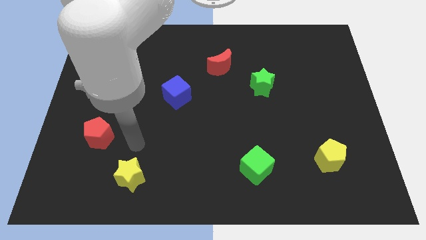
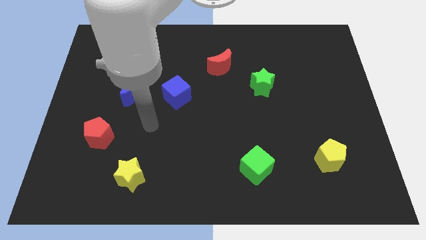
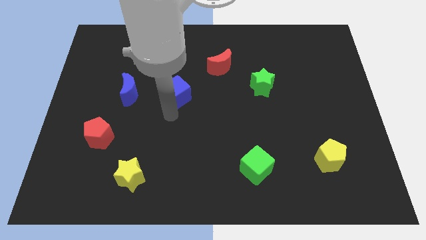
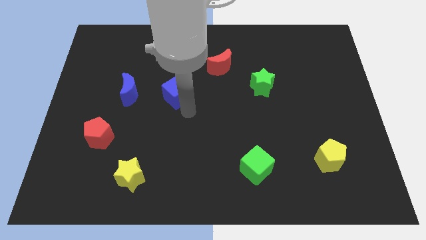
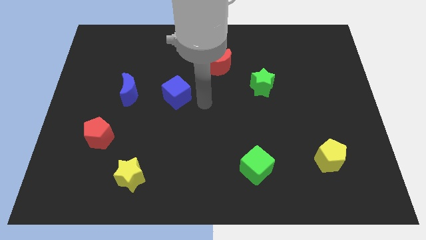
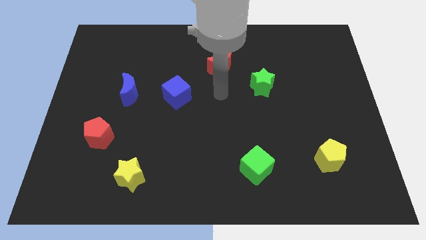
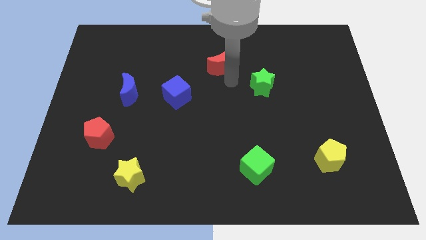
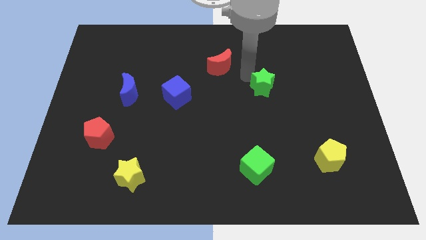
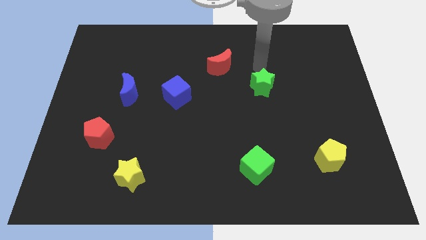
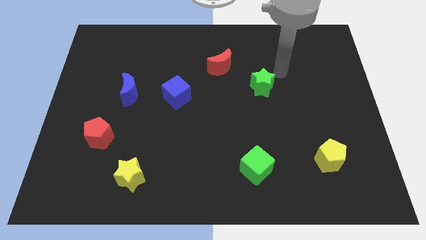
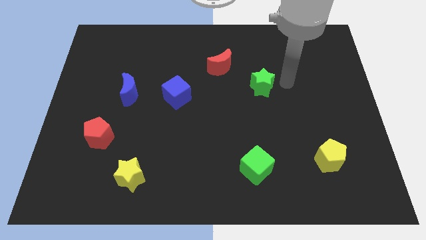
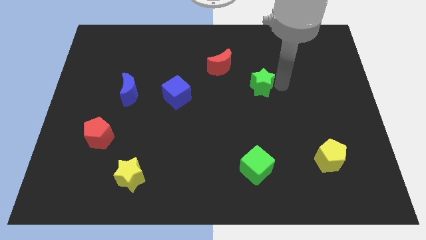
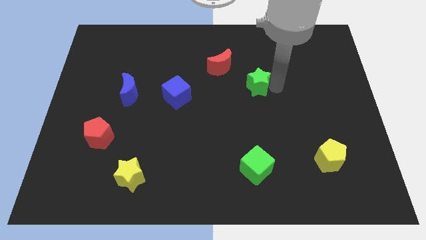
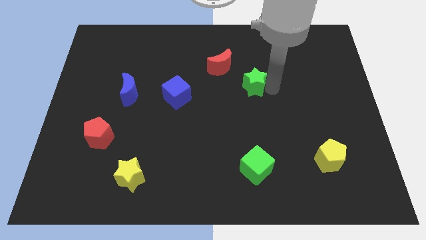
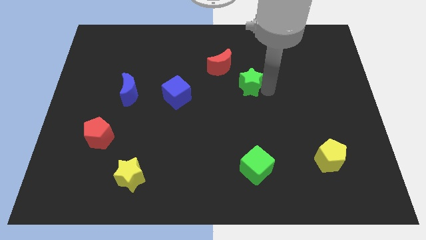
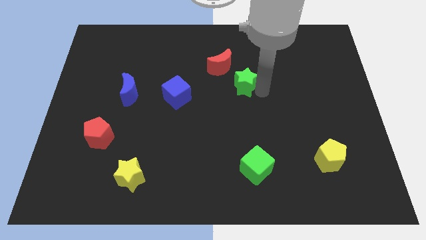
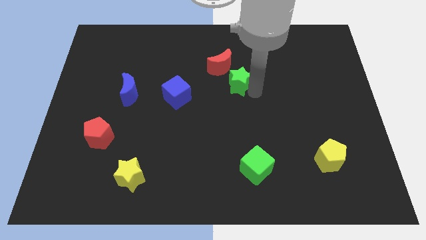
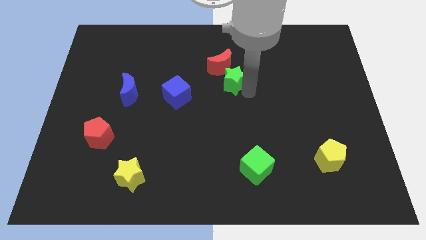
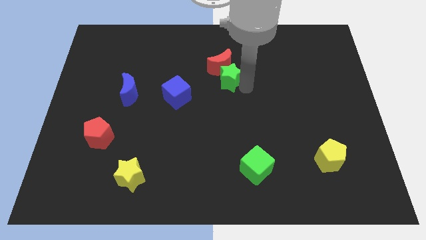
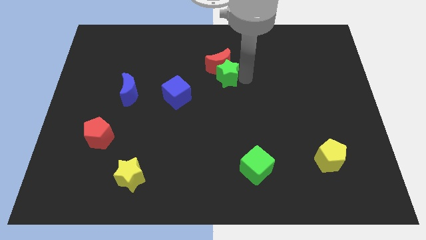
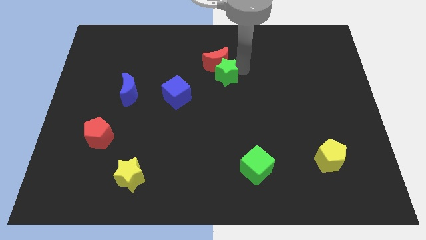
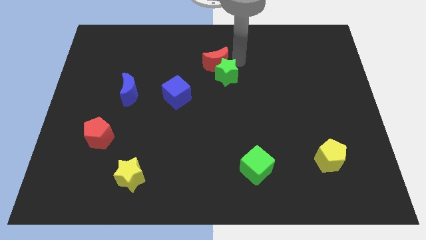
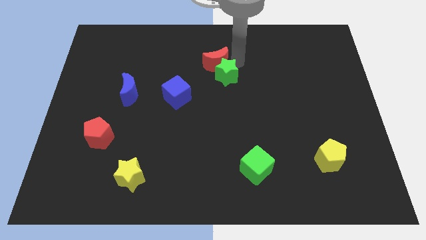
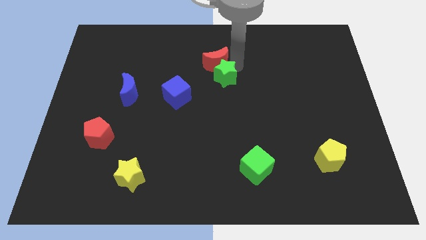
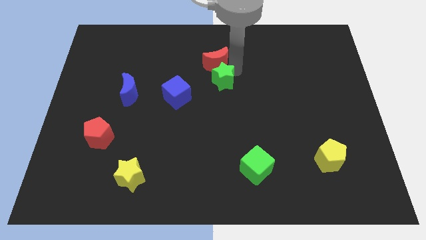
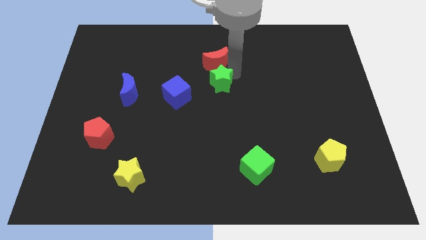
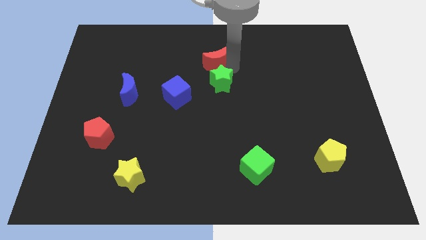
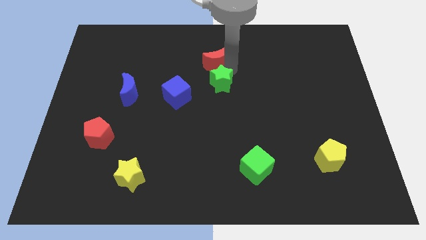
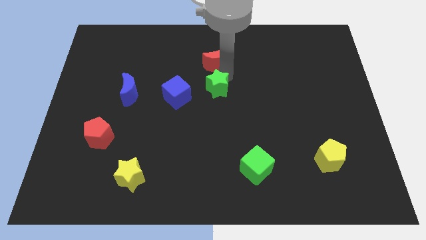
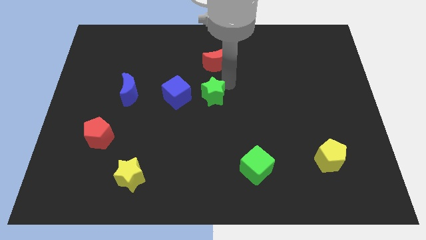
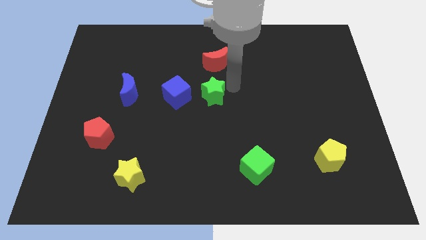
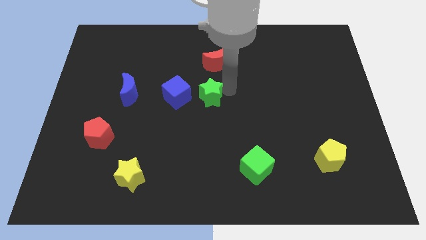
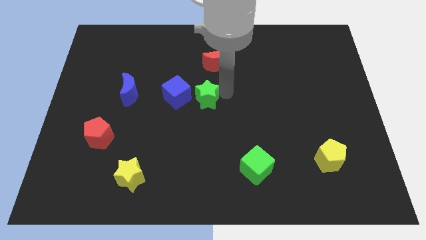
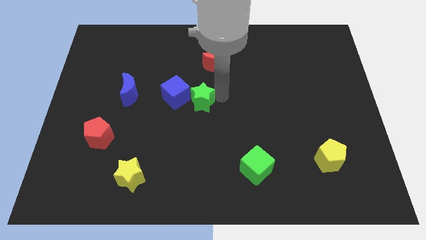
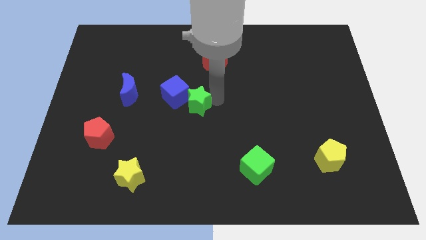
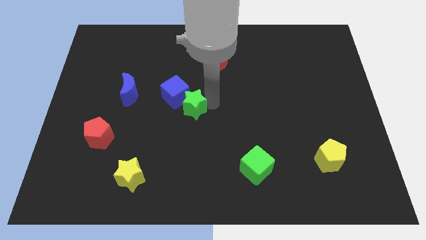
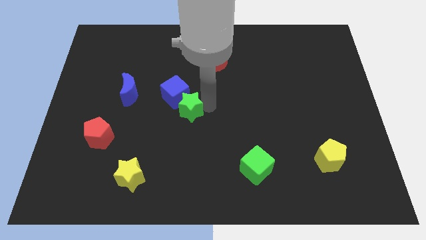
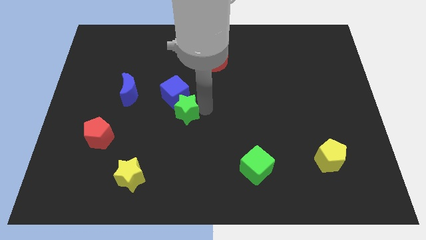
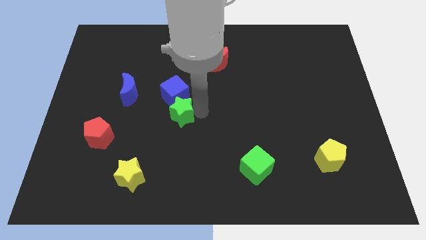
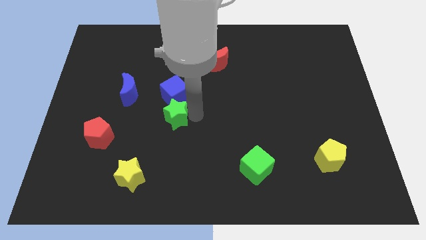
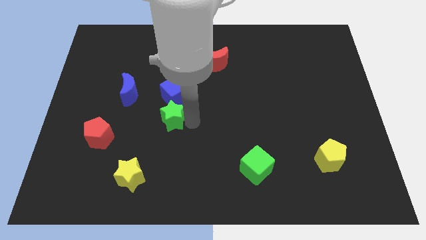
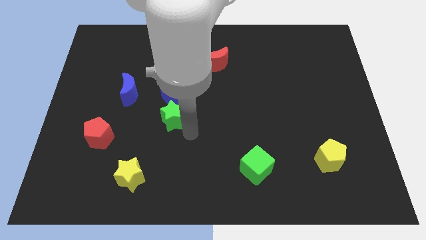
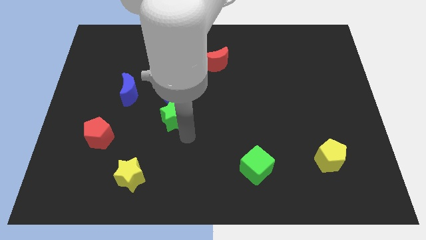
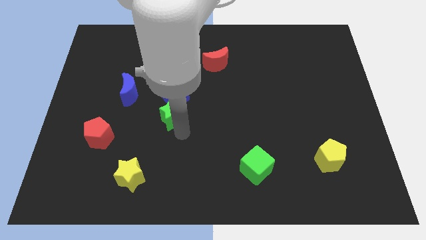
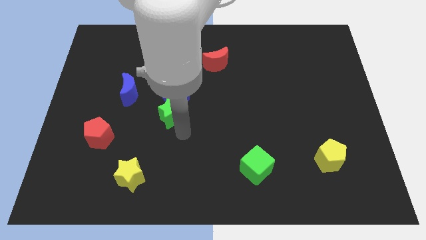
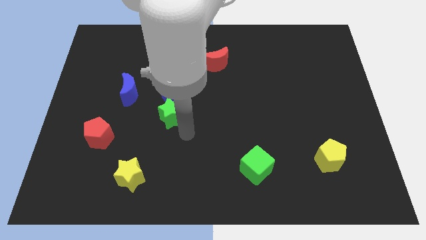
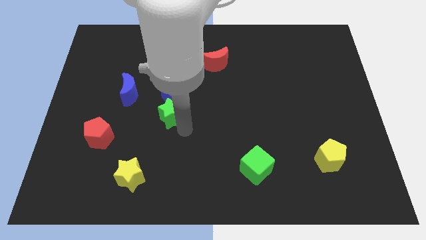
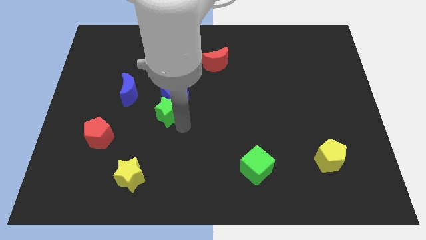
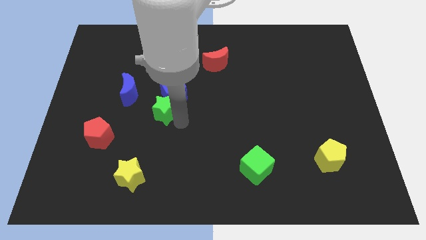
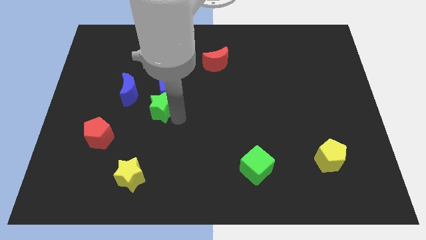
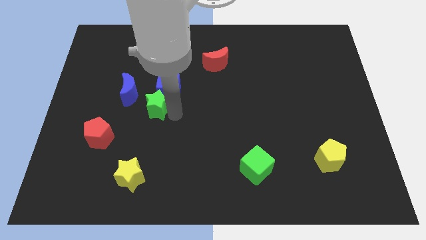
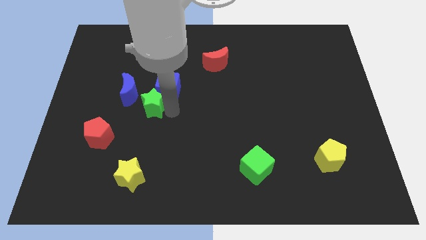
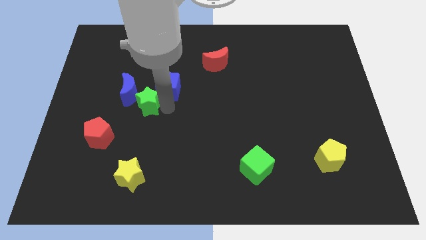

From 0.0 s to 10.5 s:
push the green star left of the blue cube

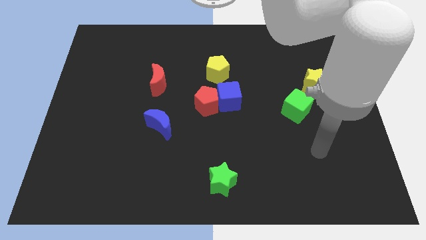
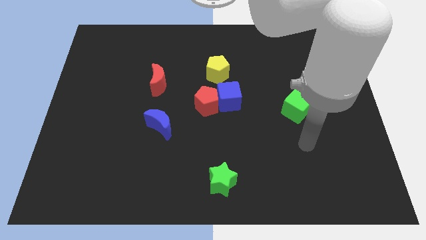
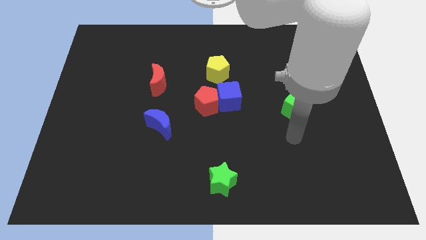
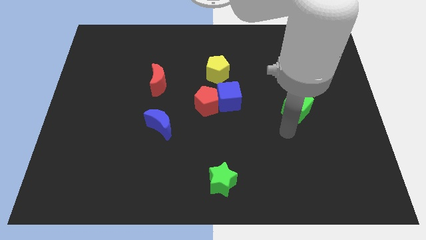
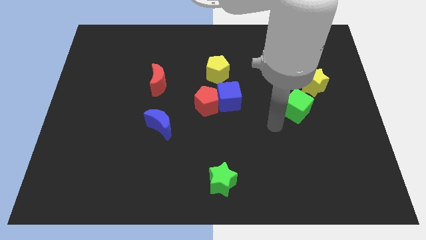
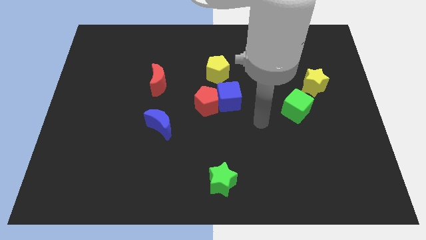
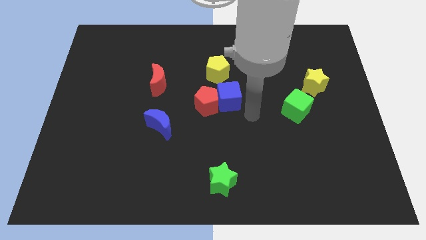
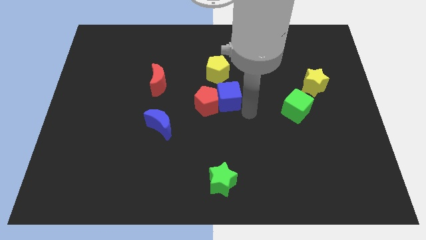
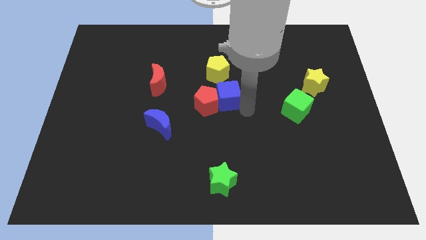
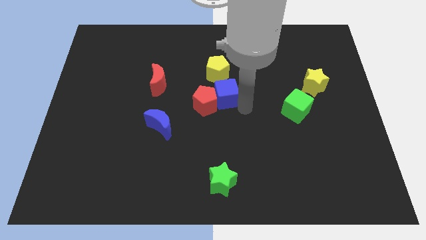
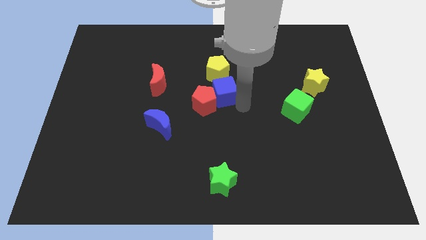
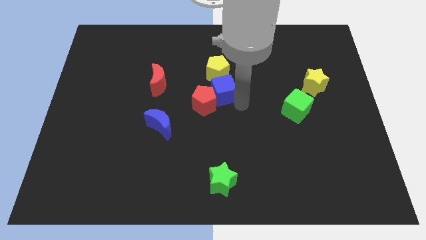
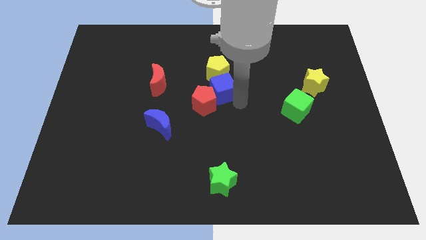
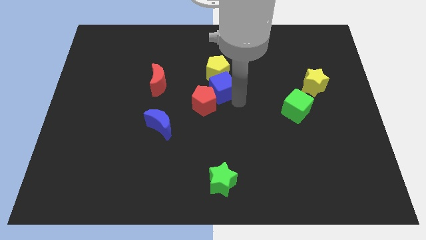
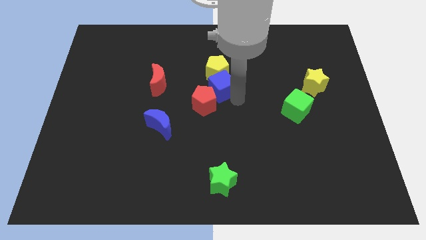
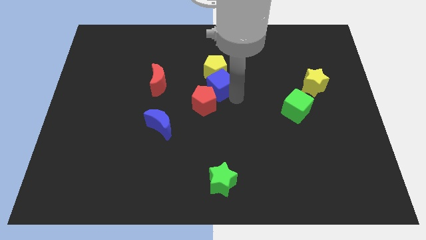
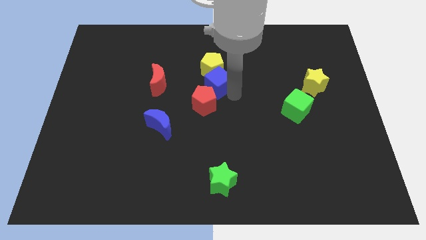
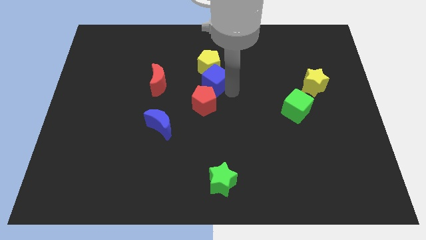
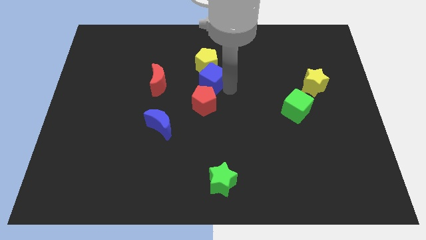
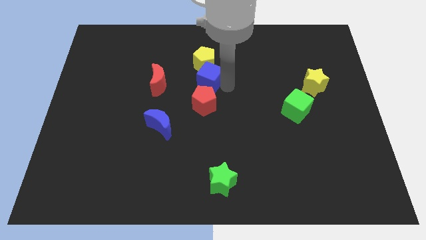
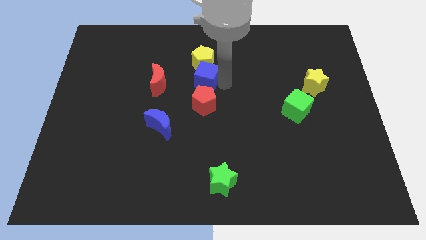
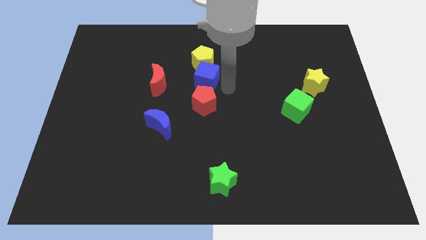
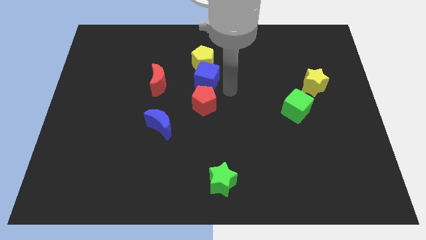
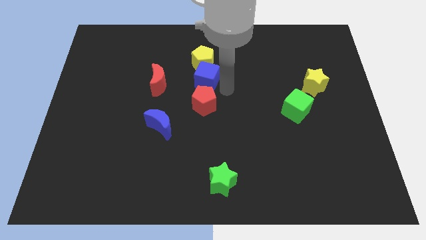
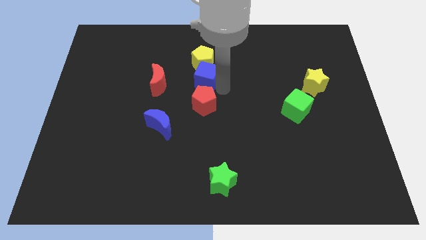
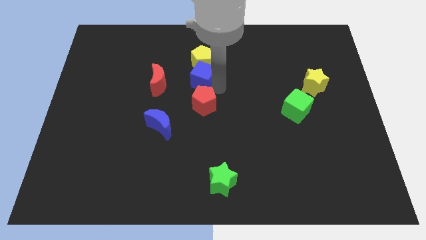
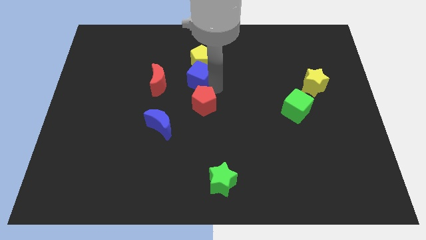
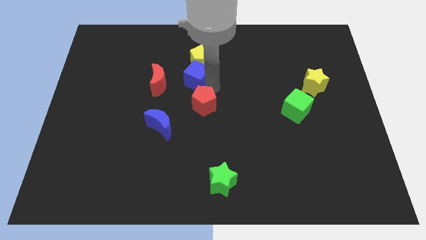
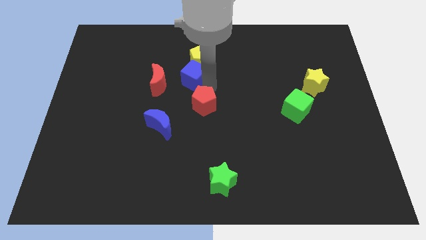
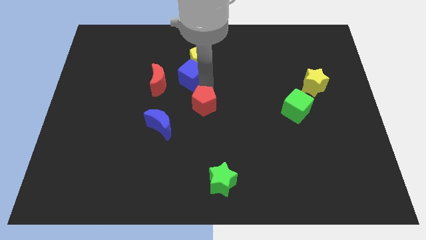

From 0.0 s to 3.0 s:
move the blue cube to the top right of the red moon
